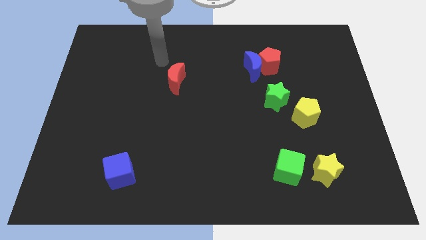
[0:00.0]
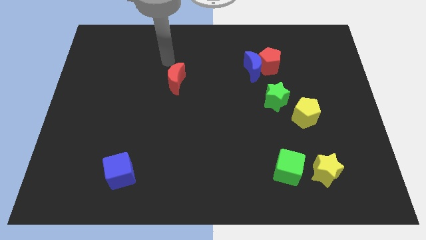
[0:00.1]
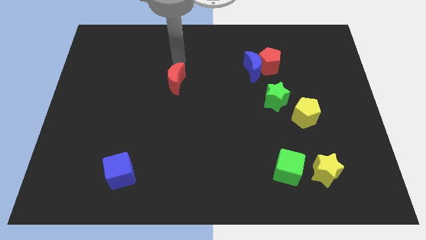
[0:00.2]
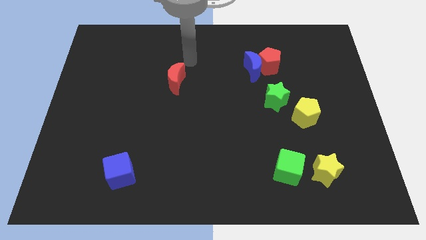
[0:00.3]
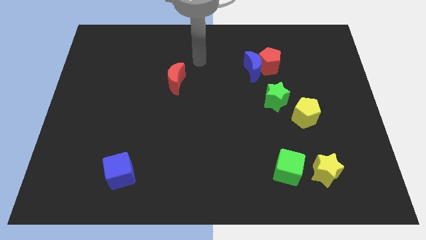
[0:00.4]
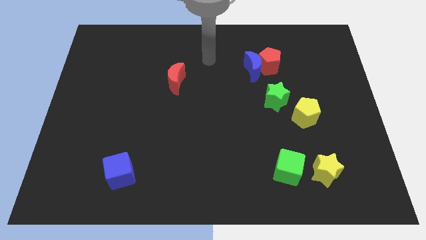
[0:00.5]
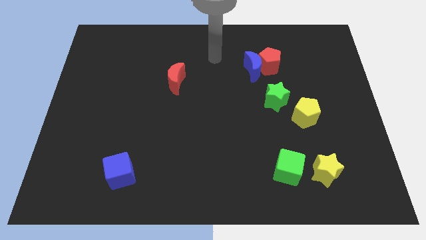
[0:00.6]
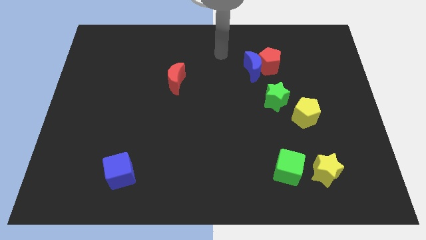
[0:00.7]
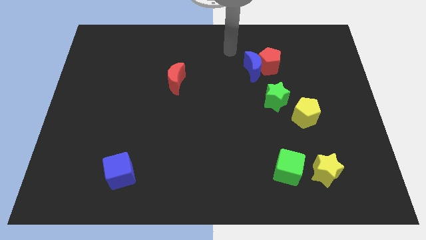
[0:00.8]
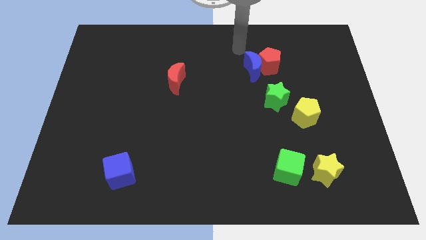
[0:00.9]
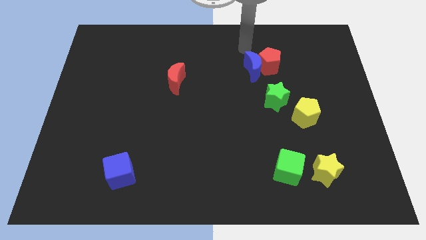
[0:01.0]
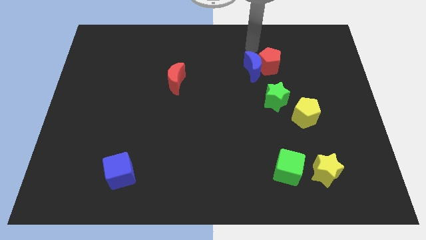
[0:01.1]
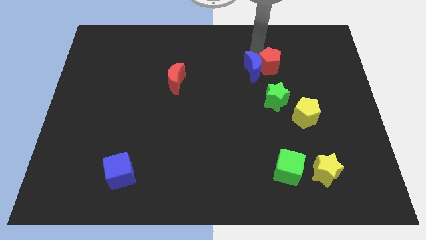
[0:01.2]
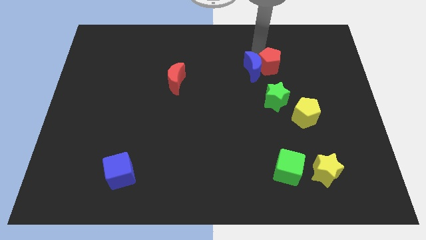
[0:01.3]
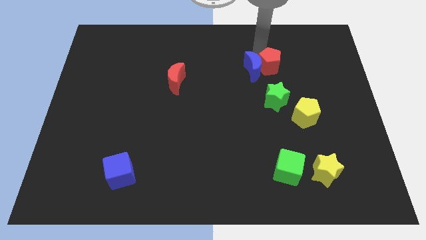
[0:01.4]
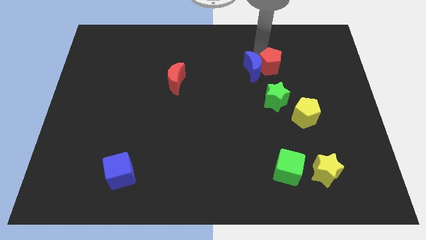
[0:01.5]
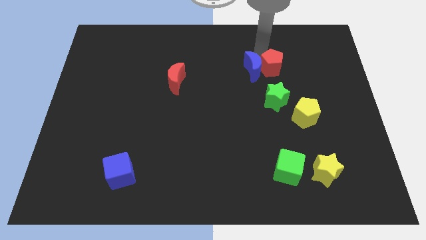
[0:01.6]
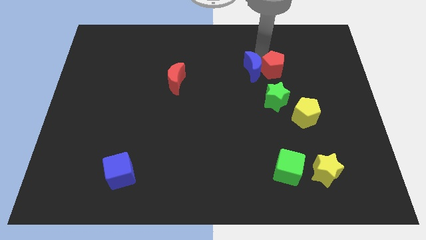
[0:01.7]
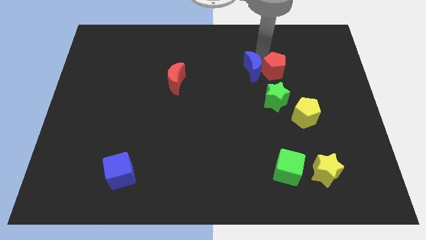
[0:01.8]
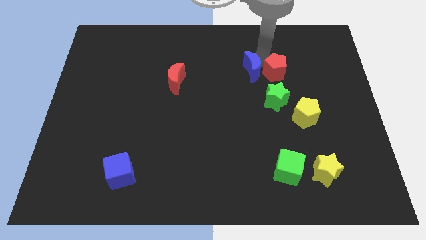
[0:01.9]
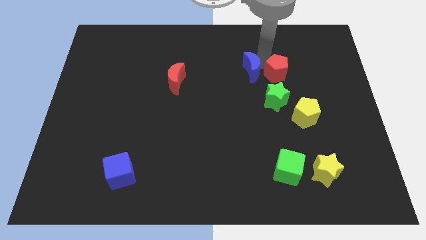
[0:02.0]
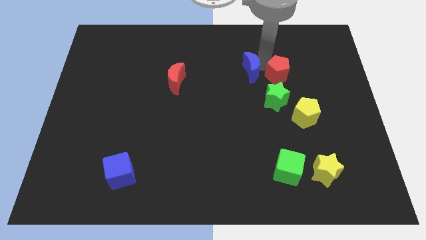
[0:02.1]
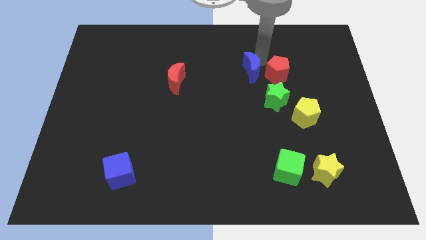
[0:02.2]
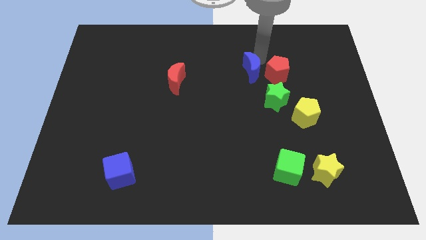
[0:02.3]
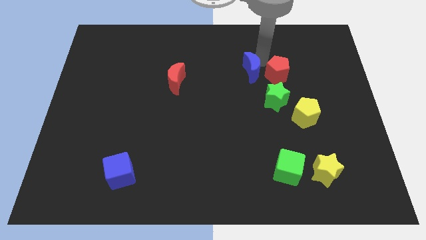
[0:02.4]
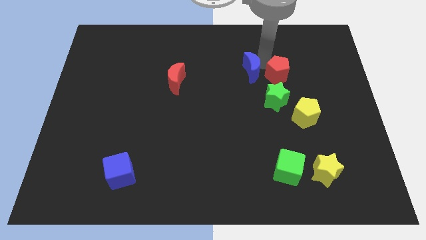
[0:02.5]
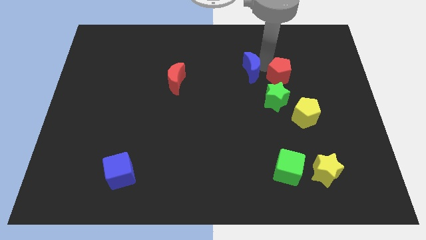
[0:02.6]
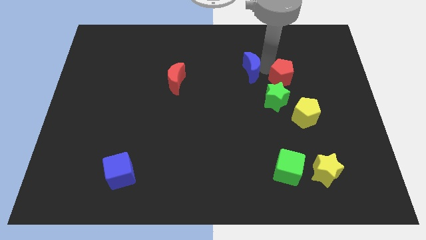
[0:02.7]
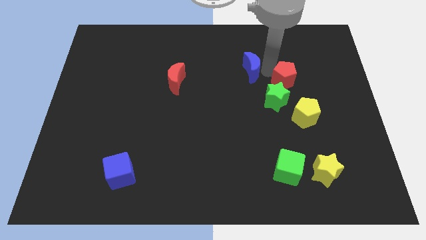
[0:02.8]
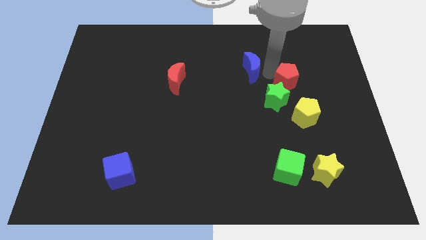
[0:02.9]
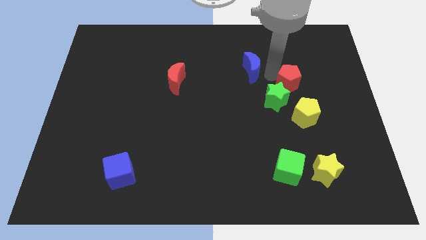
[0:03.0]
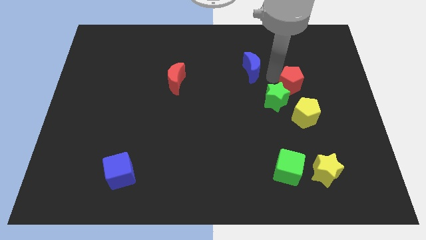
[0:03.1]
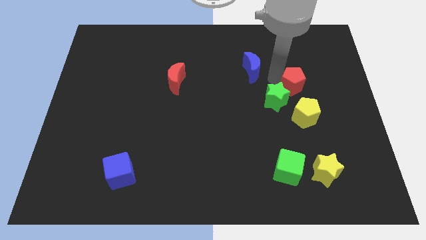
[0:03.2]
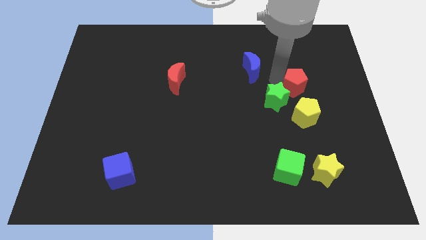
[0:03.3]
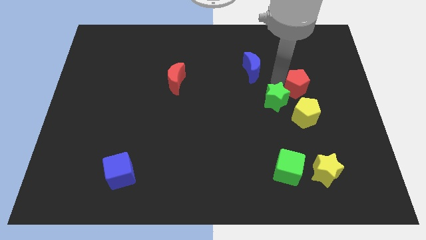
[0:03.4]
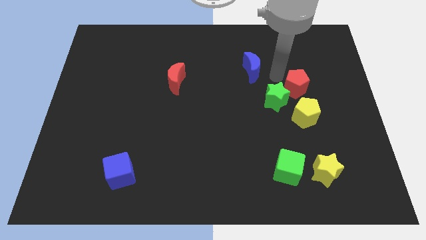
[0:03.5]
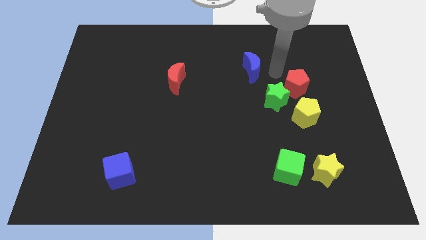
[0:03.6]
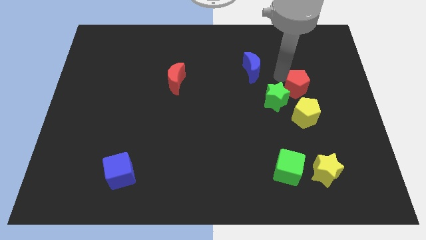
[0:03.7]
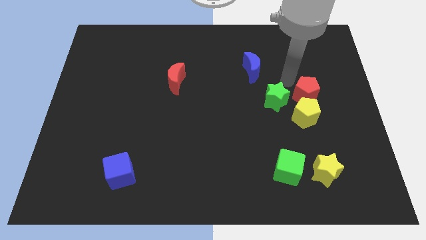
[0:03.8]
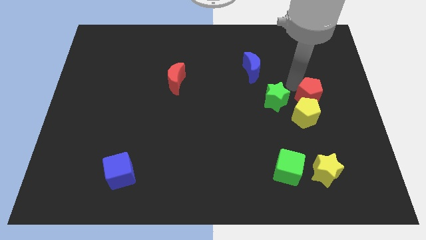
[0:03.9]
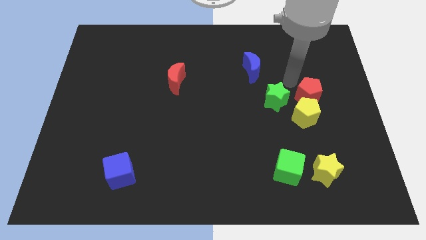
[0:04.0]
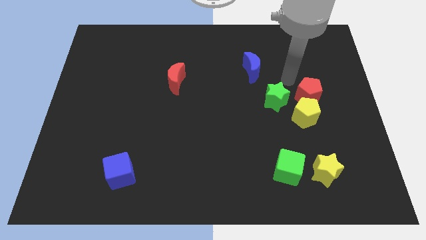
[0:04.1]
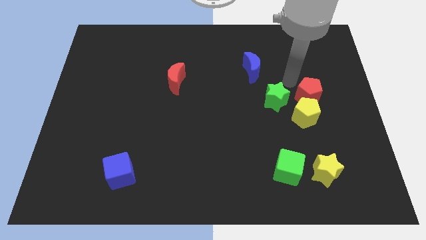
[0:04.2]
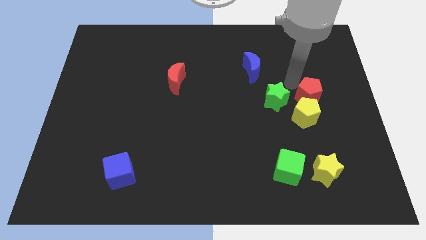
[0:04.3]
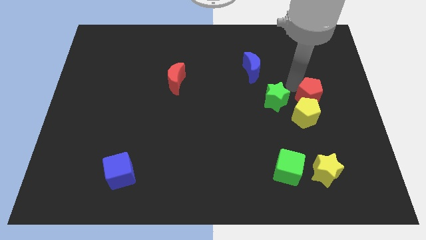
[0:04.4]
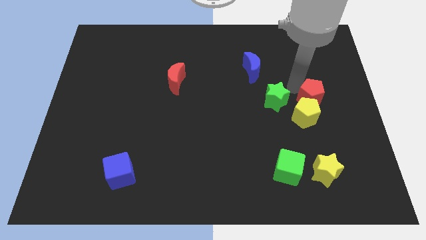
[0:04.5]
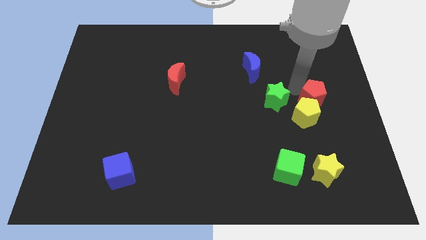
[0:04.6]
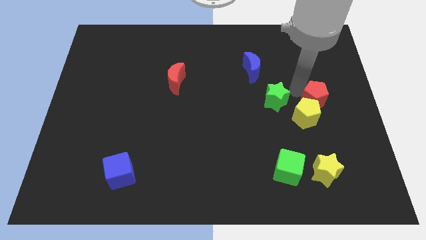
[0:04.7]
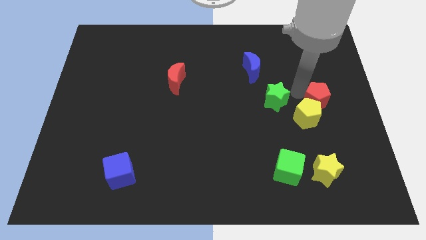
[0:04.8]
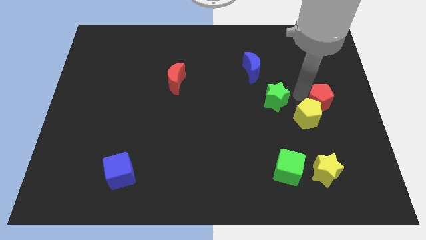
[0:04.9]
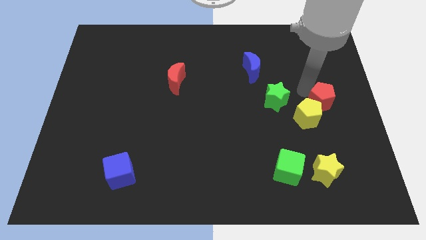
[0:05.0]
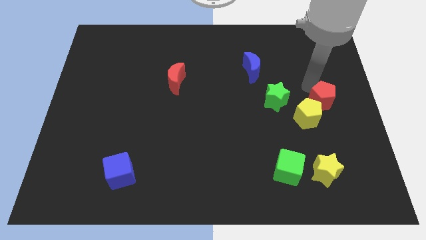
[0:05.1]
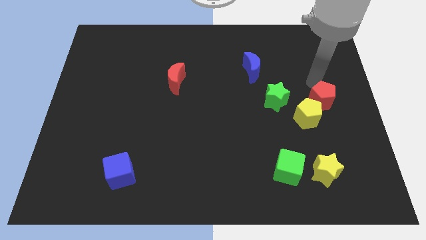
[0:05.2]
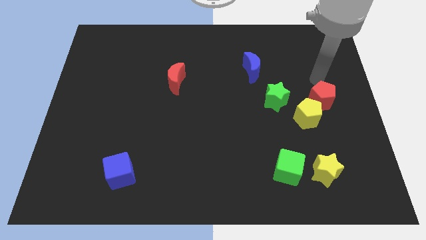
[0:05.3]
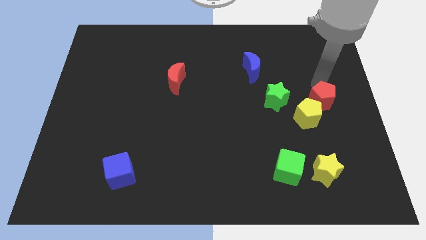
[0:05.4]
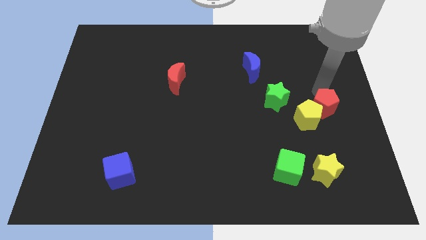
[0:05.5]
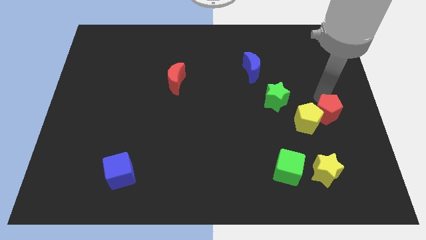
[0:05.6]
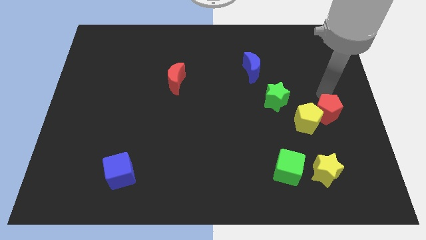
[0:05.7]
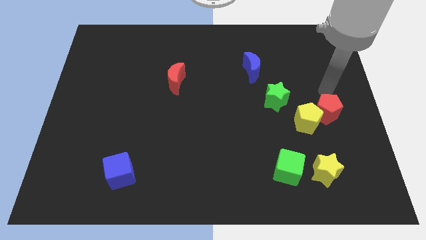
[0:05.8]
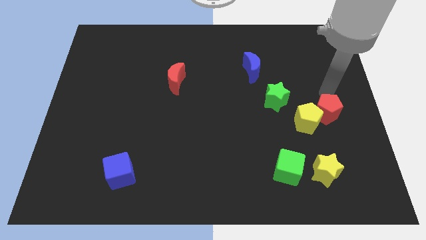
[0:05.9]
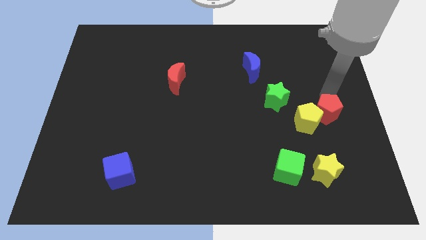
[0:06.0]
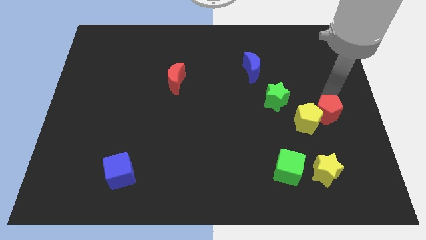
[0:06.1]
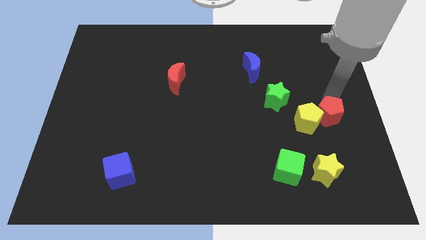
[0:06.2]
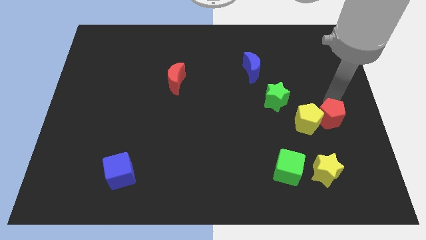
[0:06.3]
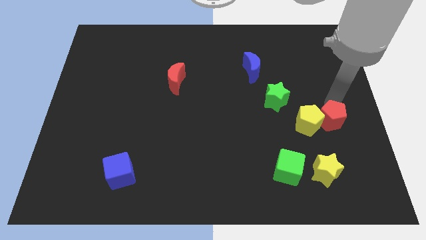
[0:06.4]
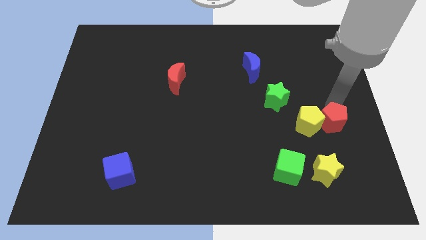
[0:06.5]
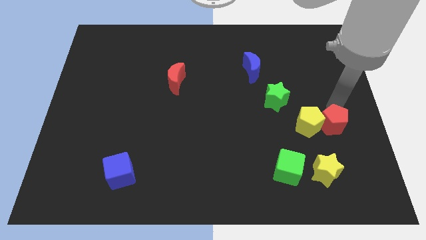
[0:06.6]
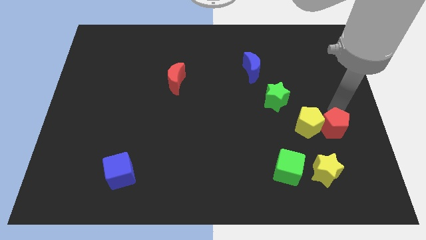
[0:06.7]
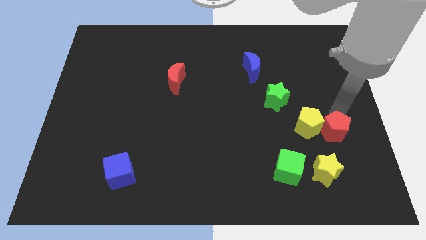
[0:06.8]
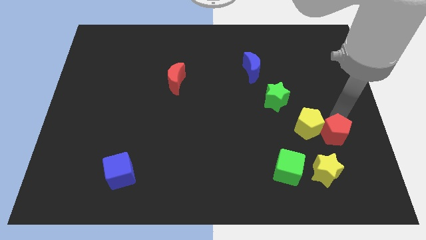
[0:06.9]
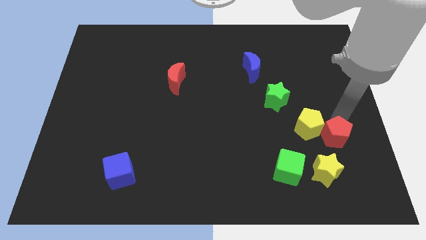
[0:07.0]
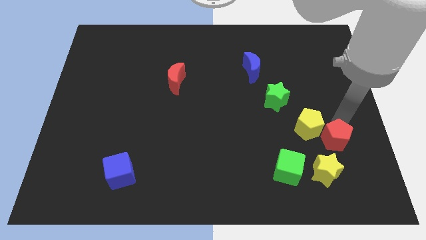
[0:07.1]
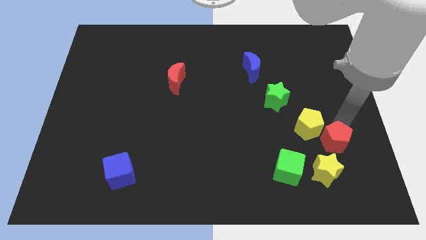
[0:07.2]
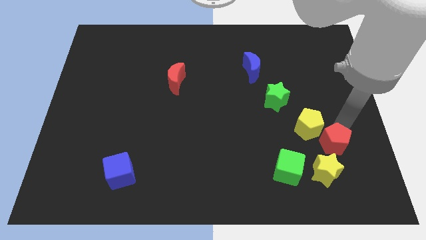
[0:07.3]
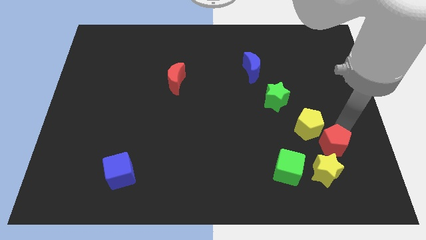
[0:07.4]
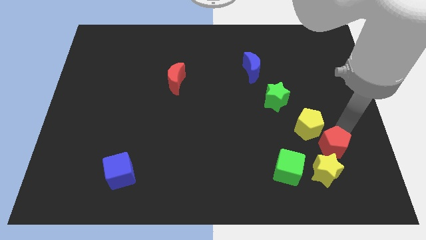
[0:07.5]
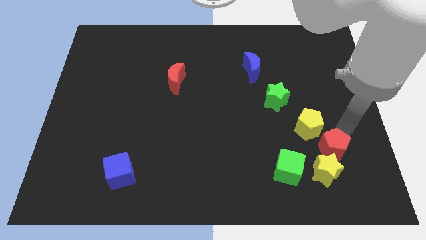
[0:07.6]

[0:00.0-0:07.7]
push the red pentagon next to the yellow star
